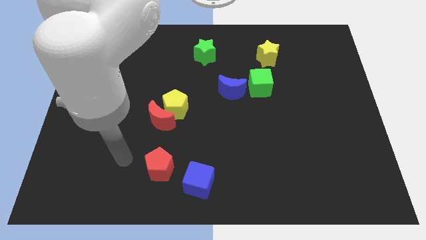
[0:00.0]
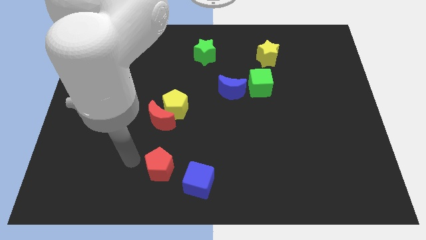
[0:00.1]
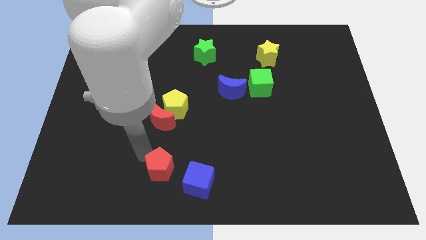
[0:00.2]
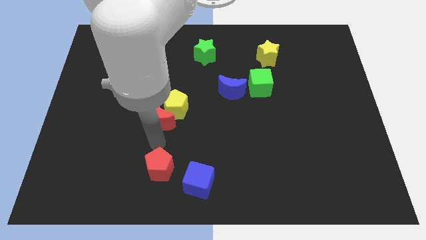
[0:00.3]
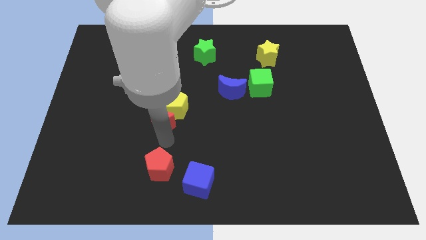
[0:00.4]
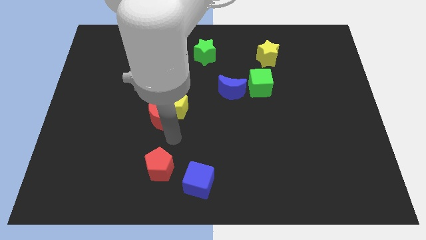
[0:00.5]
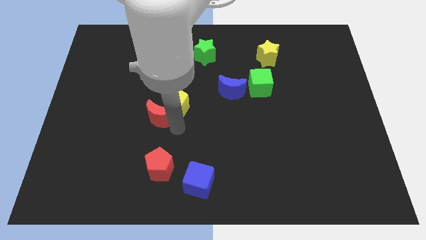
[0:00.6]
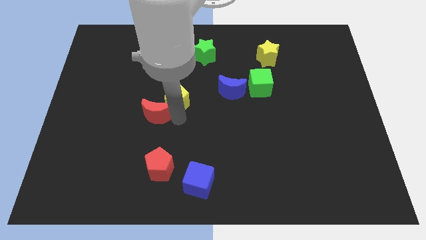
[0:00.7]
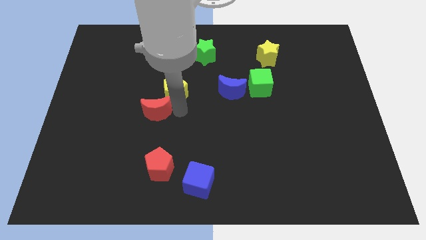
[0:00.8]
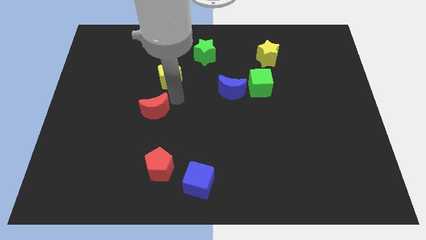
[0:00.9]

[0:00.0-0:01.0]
pull the red moon apart from the yellow pentagon

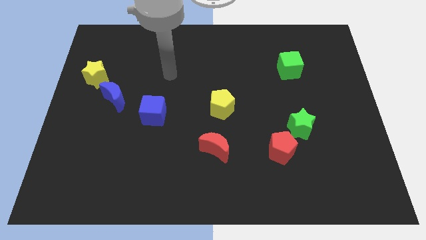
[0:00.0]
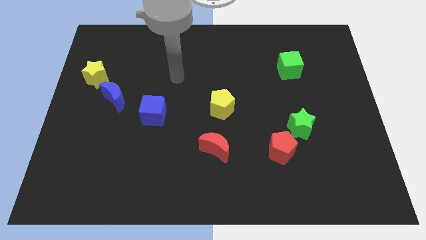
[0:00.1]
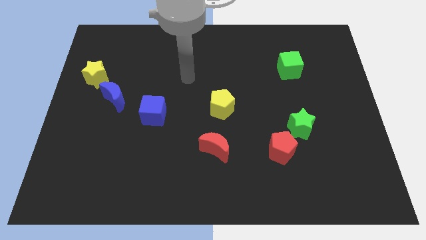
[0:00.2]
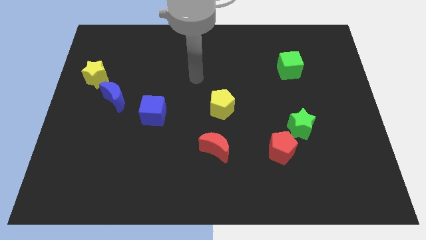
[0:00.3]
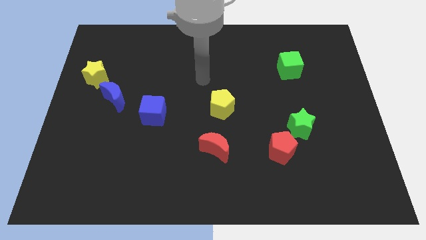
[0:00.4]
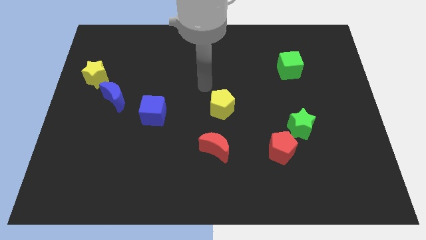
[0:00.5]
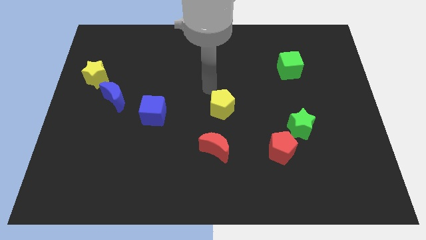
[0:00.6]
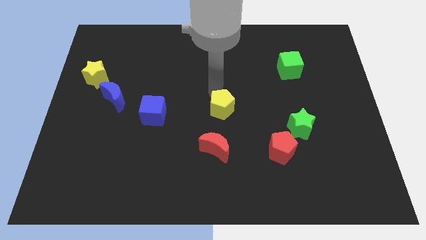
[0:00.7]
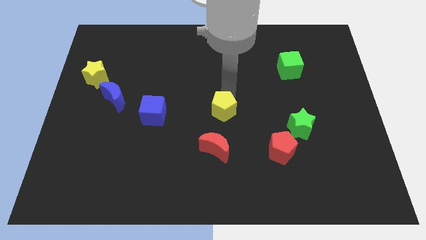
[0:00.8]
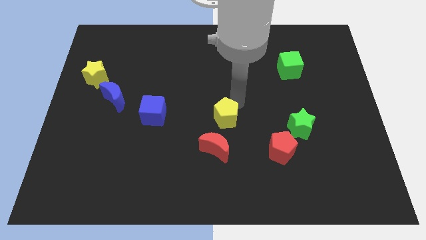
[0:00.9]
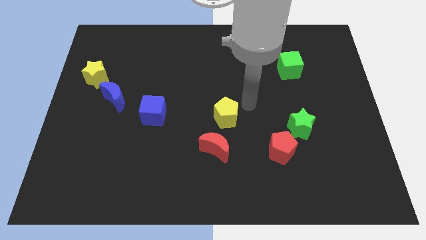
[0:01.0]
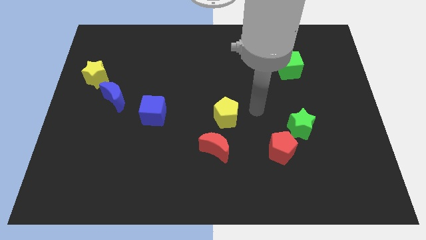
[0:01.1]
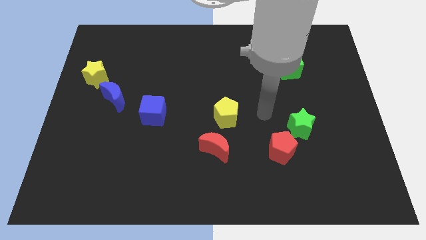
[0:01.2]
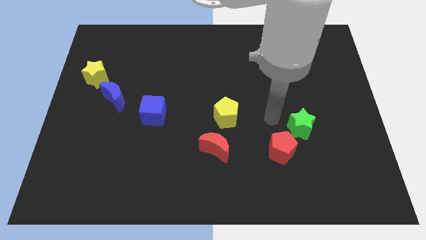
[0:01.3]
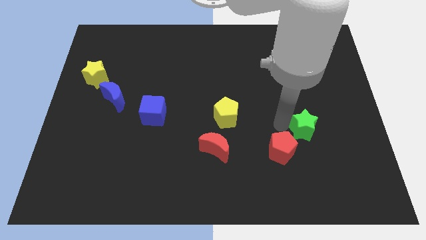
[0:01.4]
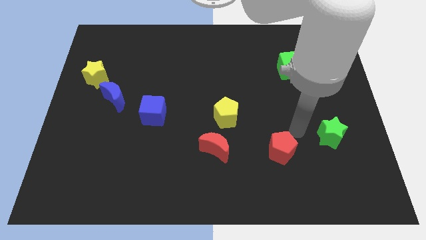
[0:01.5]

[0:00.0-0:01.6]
move the red pentagon away from the green star

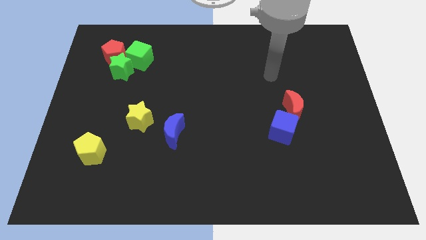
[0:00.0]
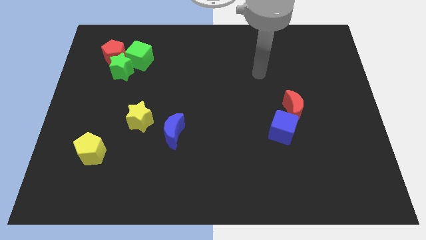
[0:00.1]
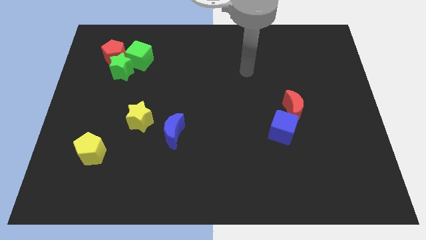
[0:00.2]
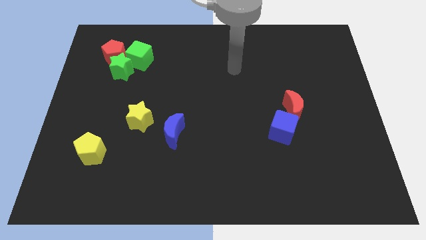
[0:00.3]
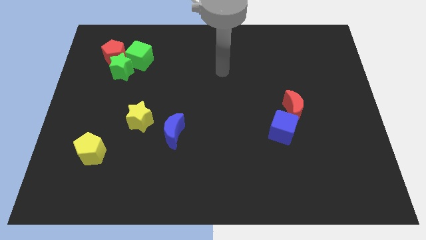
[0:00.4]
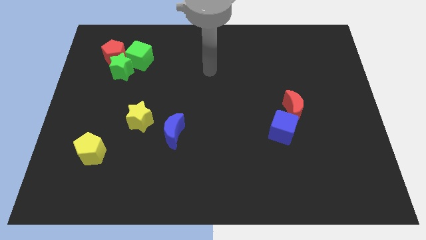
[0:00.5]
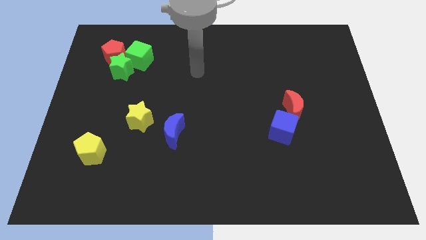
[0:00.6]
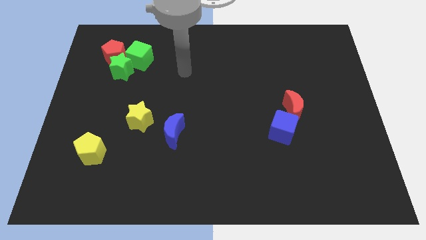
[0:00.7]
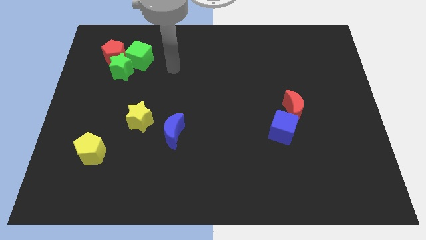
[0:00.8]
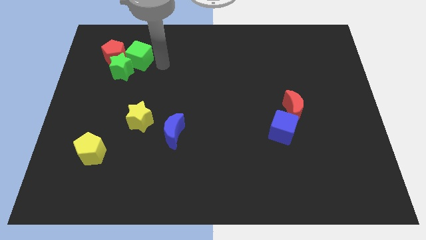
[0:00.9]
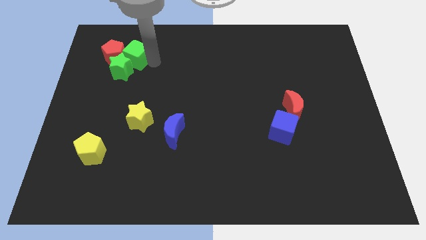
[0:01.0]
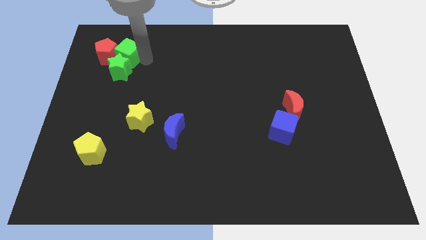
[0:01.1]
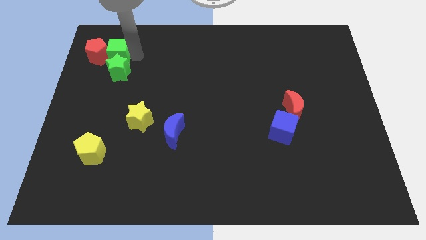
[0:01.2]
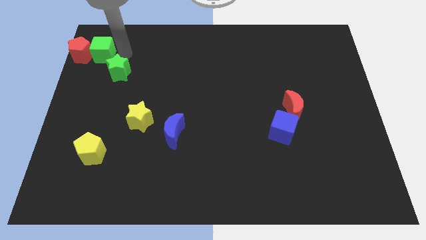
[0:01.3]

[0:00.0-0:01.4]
pull the green star apart from the red pentagon and green cube

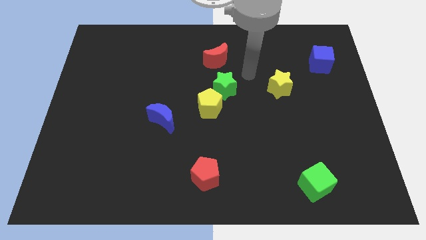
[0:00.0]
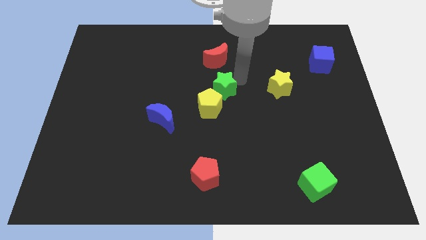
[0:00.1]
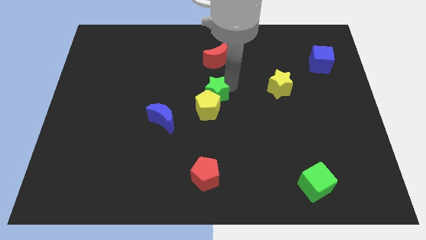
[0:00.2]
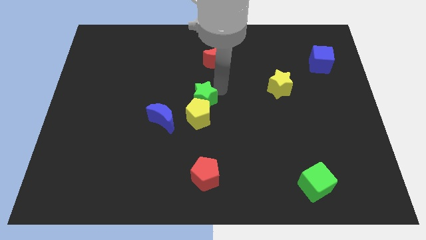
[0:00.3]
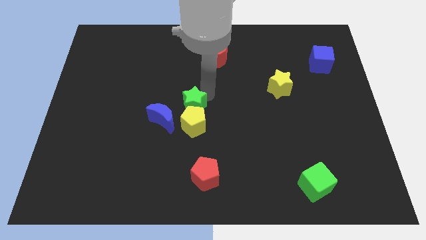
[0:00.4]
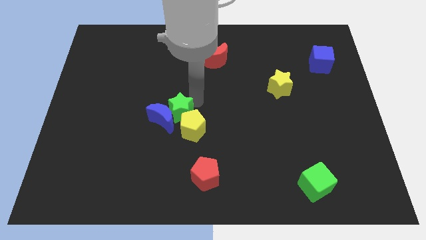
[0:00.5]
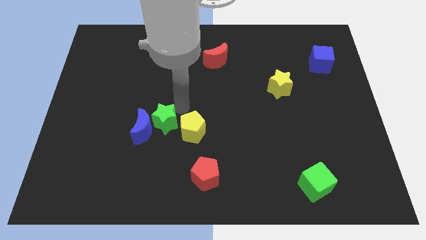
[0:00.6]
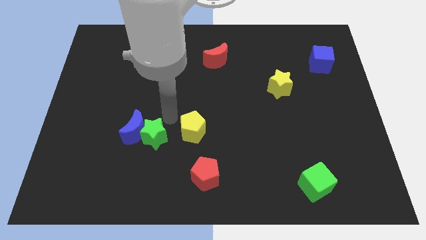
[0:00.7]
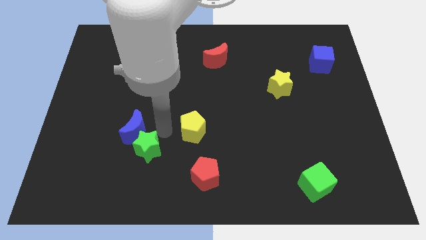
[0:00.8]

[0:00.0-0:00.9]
move the yellow pentagon away from the green star

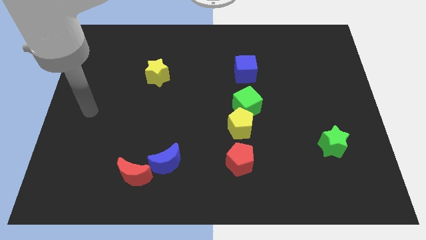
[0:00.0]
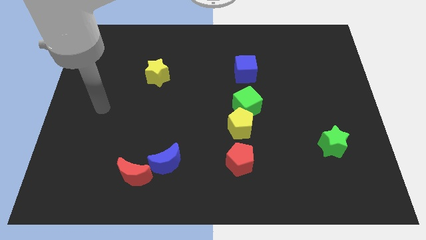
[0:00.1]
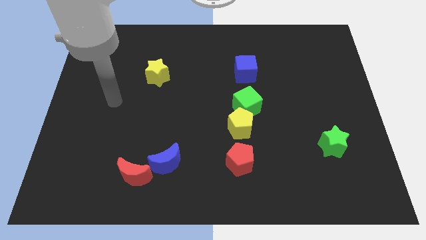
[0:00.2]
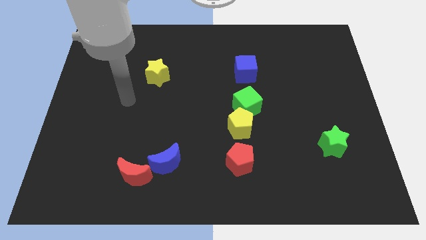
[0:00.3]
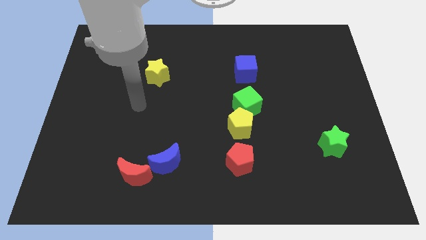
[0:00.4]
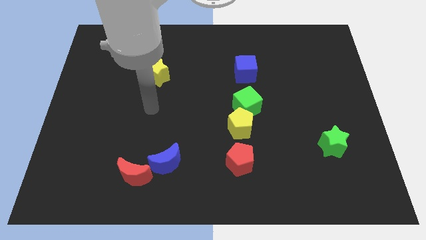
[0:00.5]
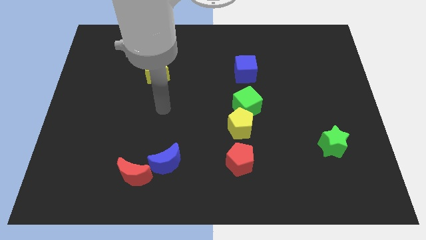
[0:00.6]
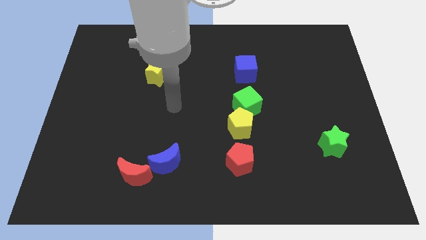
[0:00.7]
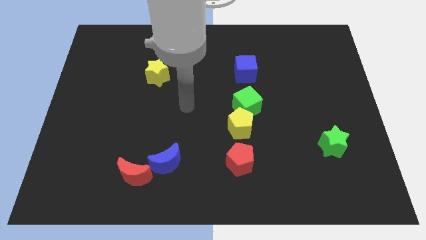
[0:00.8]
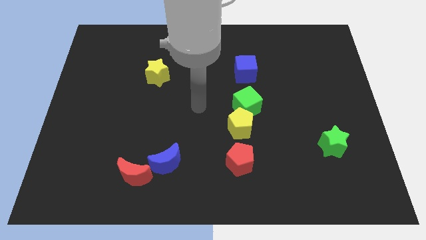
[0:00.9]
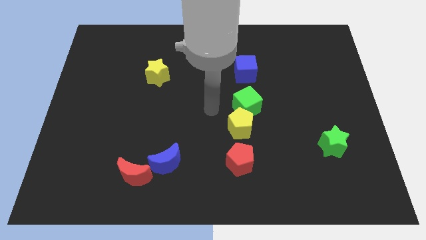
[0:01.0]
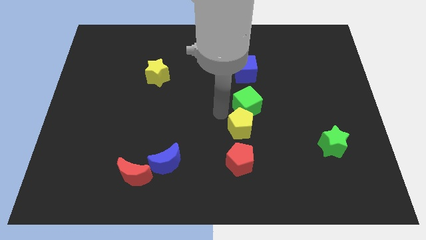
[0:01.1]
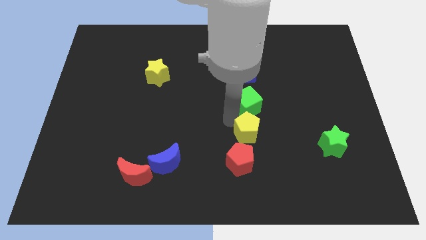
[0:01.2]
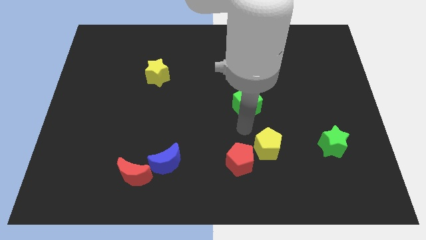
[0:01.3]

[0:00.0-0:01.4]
move the green cube away from the yellow pentagon

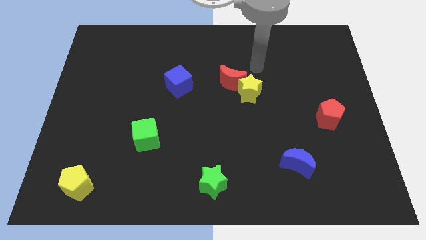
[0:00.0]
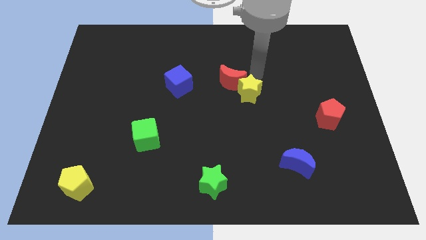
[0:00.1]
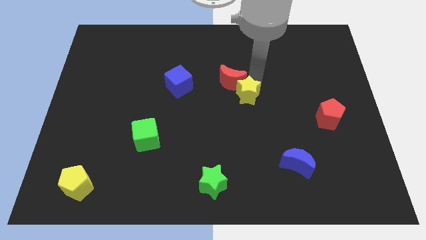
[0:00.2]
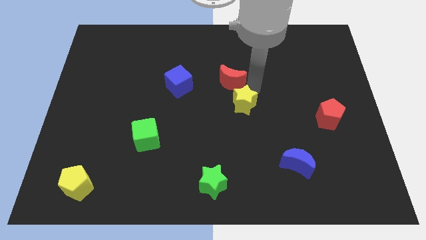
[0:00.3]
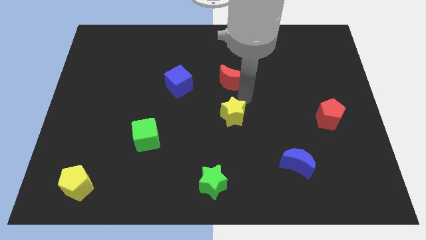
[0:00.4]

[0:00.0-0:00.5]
separate the red moon from the yellow star

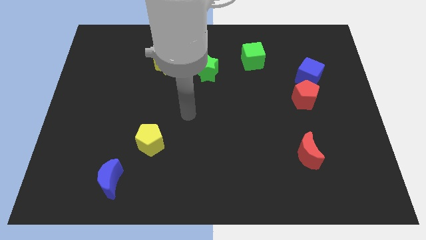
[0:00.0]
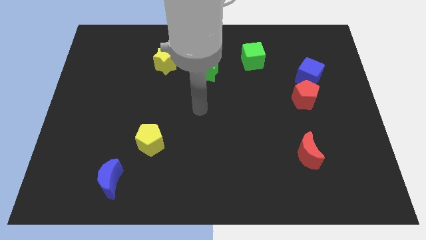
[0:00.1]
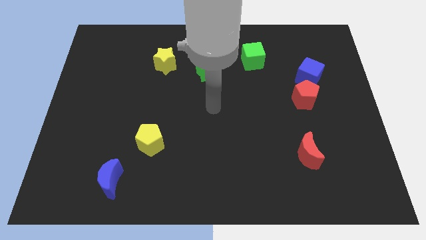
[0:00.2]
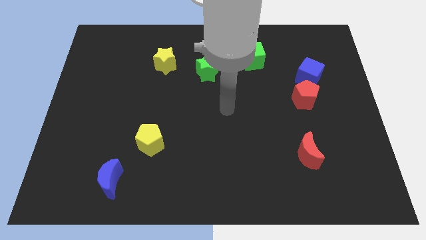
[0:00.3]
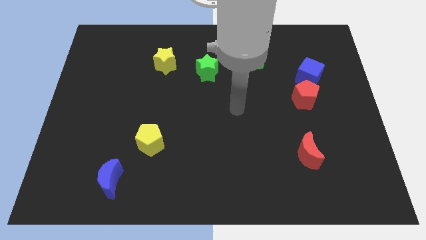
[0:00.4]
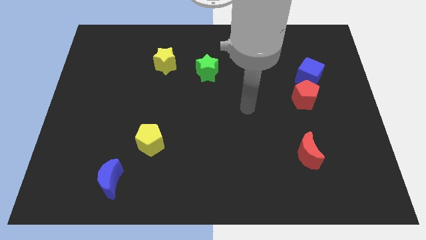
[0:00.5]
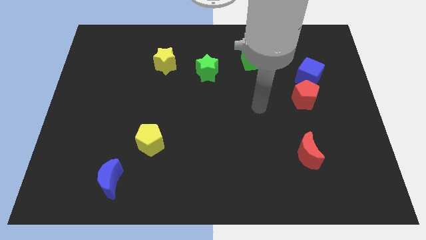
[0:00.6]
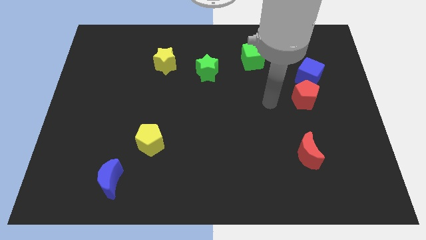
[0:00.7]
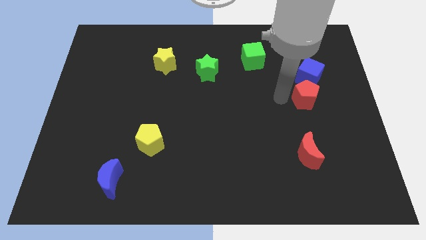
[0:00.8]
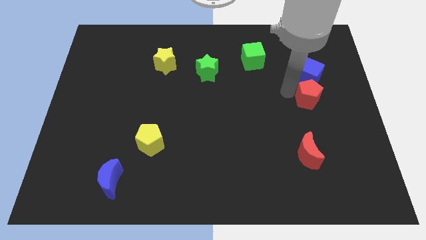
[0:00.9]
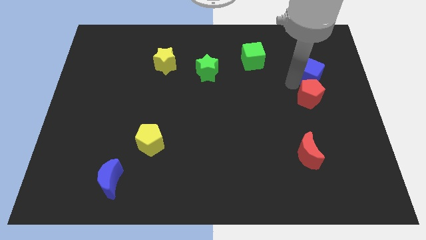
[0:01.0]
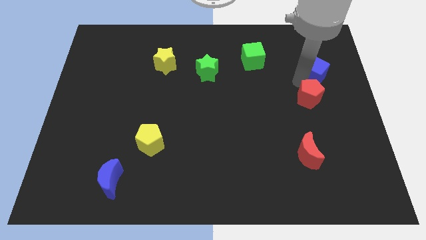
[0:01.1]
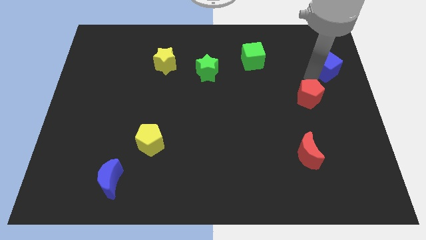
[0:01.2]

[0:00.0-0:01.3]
separate the red pentagon from the blue cube

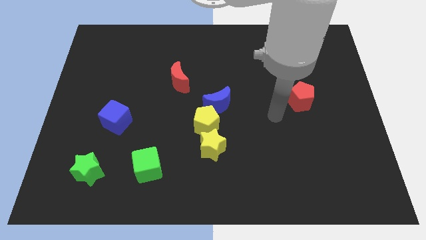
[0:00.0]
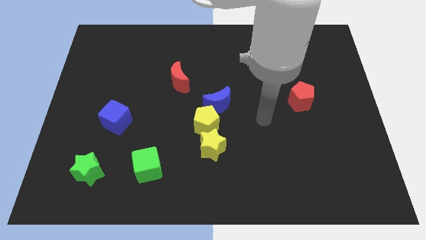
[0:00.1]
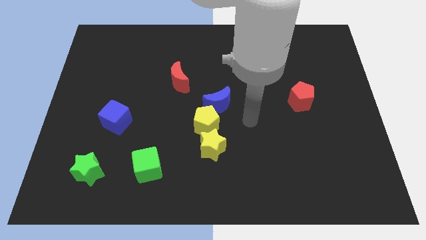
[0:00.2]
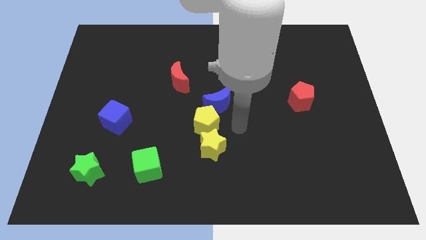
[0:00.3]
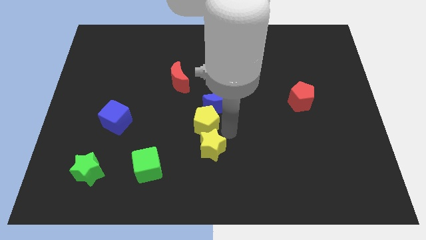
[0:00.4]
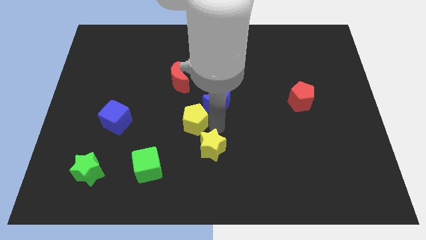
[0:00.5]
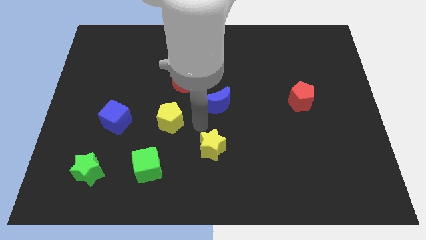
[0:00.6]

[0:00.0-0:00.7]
separate the yellow star from the yellow pentagon

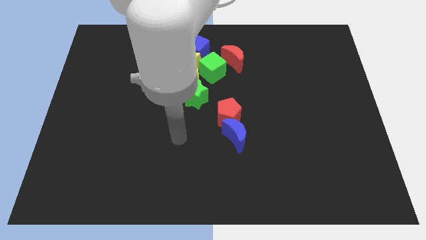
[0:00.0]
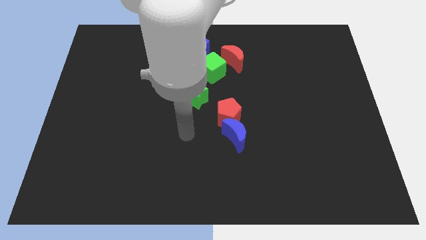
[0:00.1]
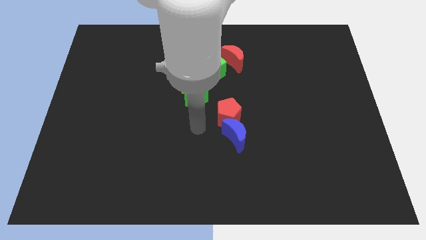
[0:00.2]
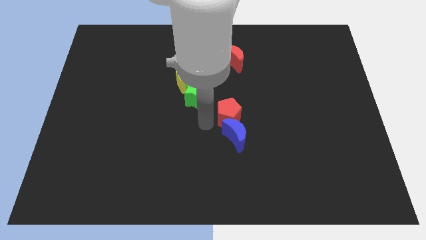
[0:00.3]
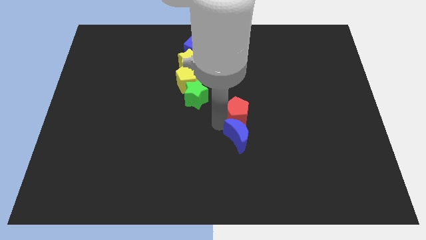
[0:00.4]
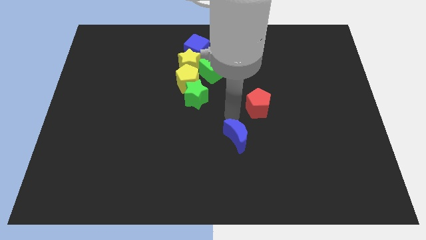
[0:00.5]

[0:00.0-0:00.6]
separate the blue moon from the red pentagon

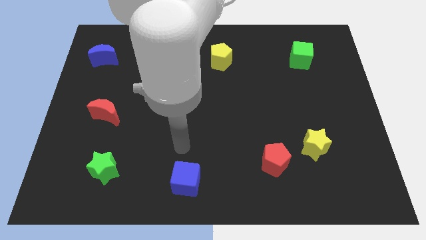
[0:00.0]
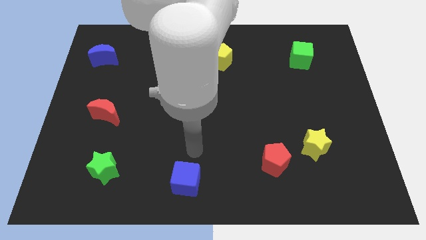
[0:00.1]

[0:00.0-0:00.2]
move the red pentagon away from the yellow star
